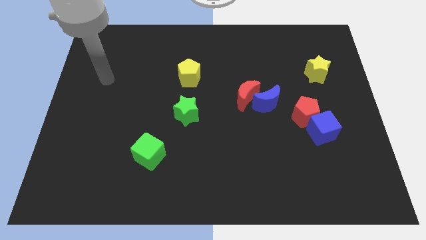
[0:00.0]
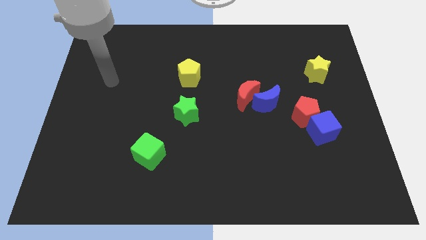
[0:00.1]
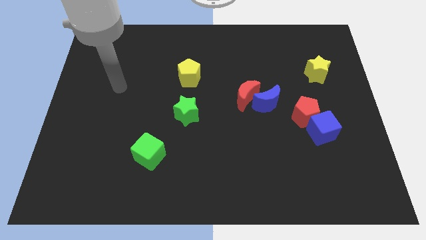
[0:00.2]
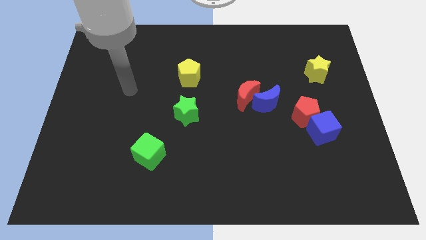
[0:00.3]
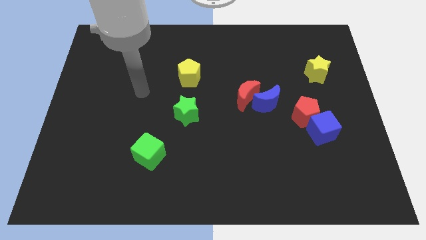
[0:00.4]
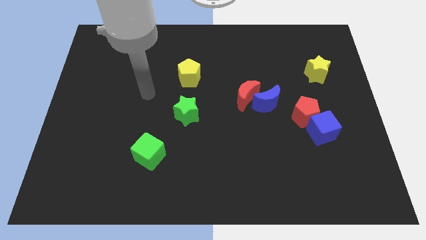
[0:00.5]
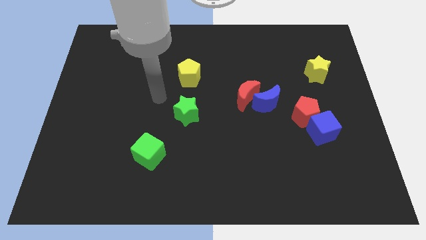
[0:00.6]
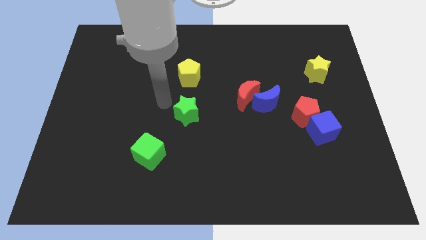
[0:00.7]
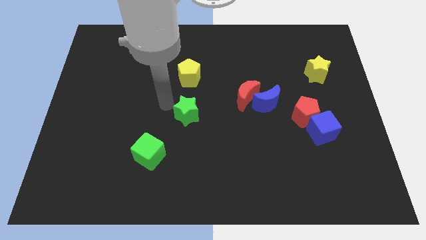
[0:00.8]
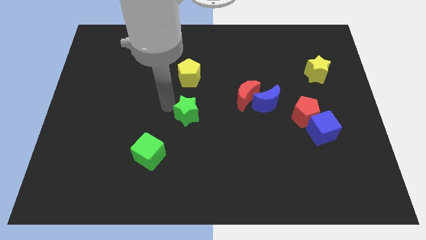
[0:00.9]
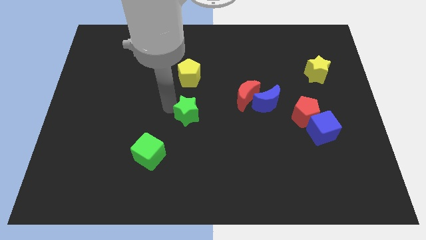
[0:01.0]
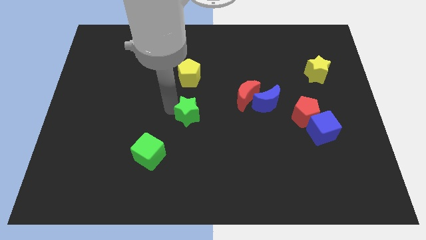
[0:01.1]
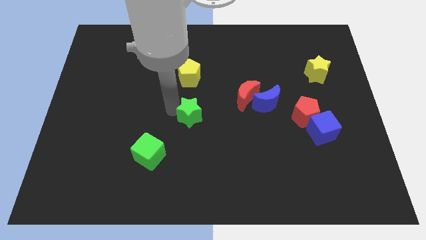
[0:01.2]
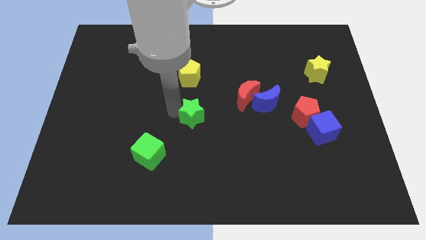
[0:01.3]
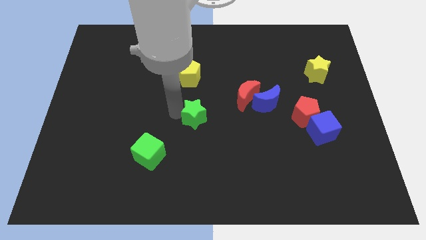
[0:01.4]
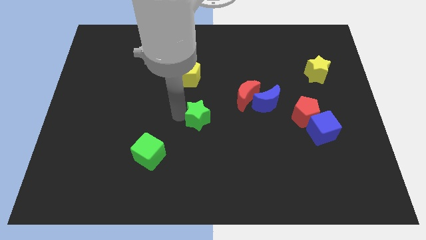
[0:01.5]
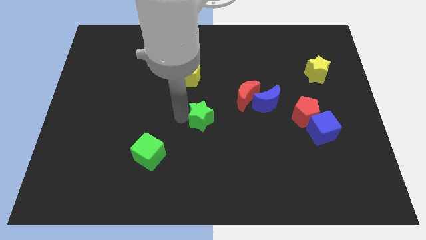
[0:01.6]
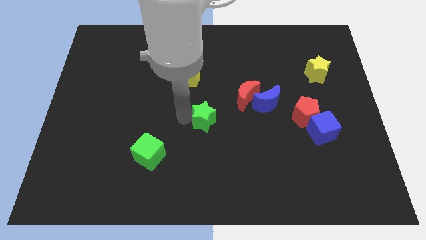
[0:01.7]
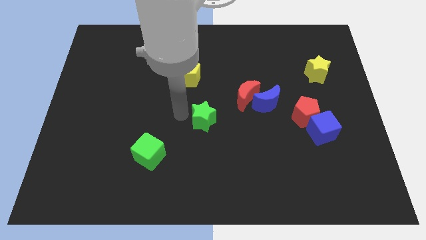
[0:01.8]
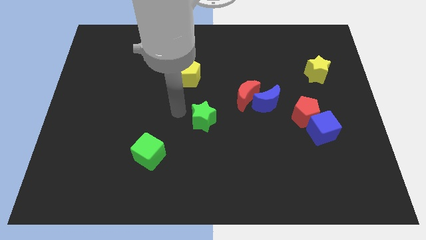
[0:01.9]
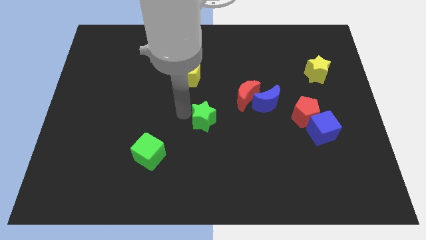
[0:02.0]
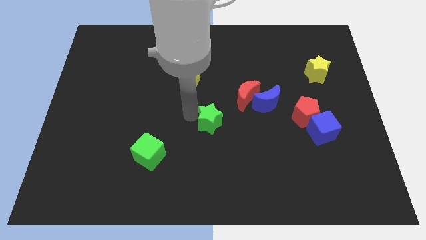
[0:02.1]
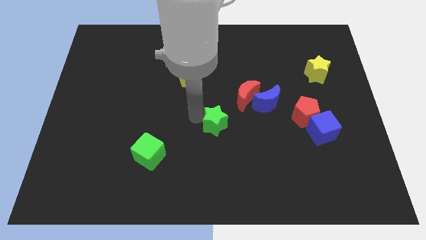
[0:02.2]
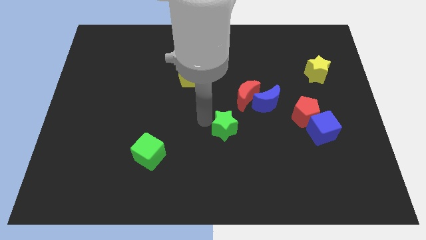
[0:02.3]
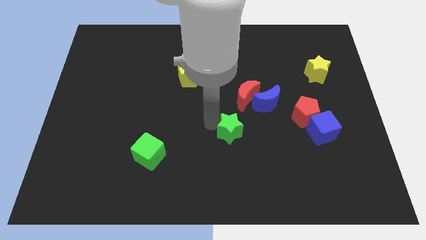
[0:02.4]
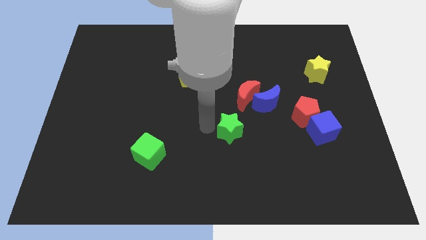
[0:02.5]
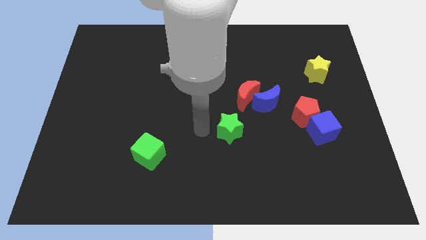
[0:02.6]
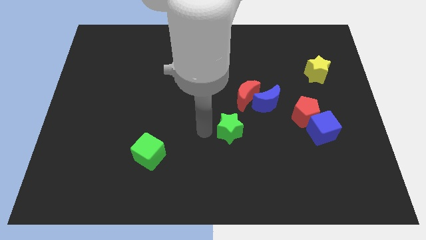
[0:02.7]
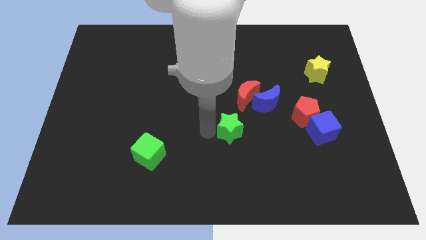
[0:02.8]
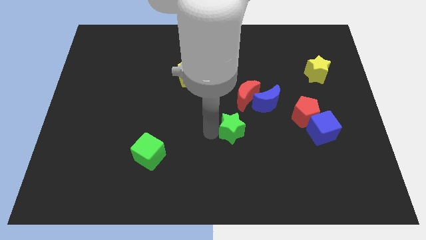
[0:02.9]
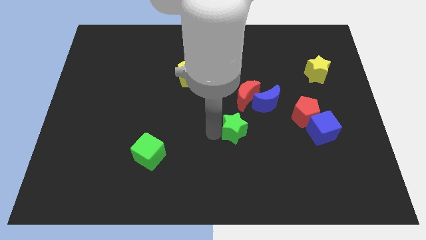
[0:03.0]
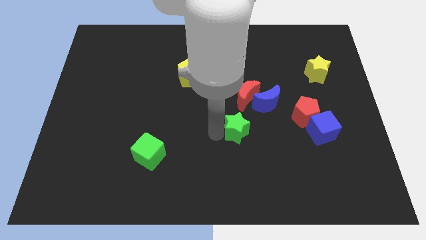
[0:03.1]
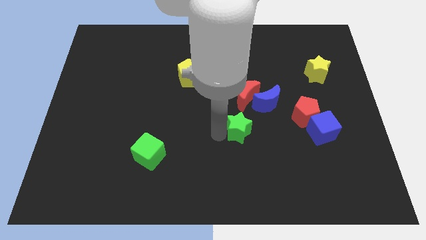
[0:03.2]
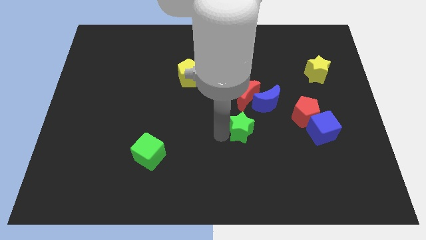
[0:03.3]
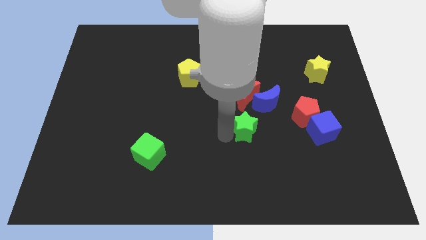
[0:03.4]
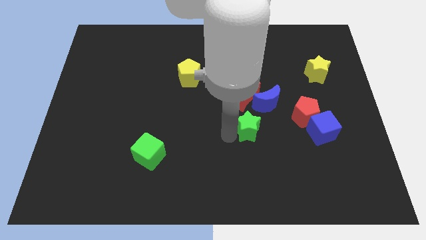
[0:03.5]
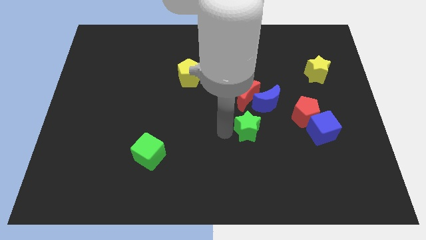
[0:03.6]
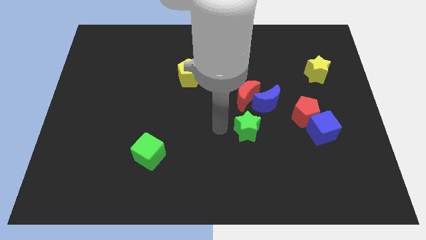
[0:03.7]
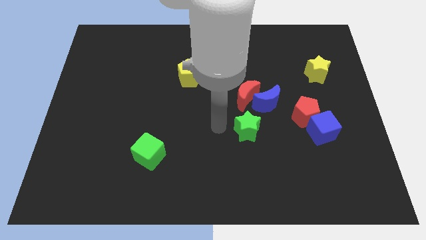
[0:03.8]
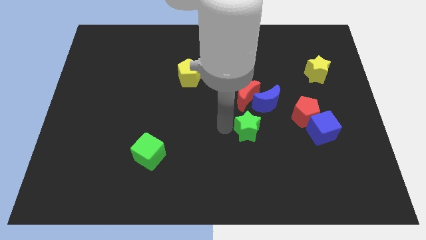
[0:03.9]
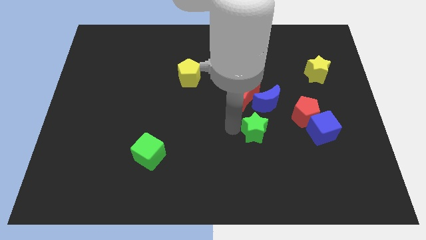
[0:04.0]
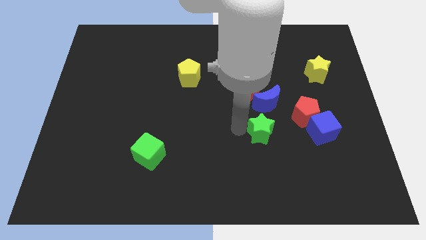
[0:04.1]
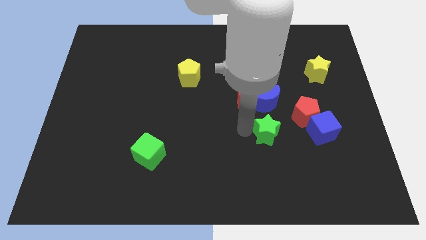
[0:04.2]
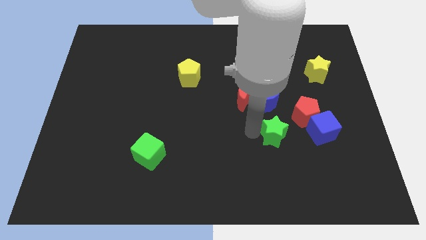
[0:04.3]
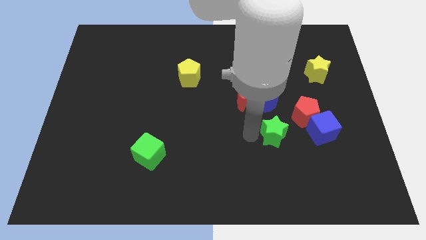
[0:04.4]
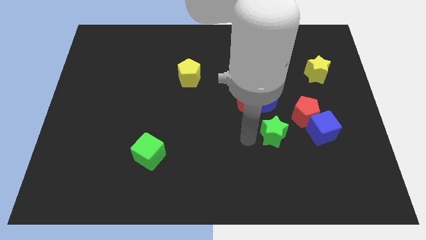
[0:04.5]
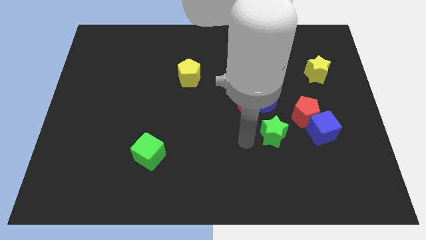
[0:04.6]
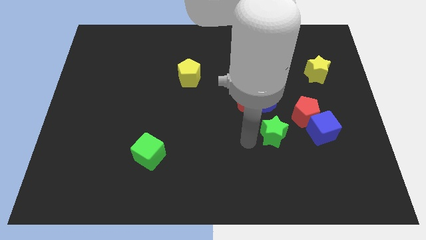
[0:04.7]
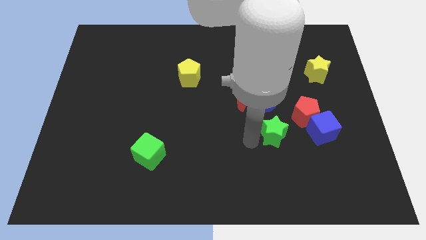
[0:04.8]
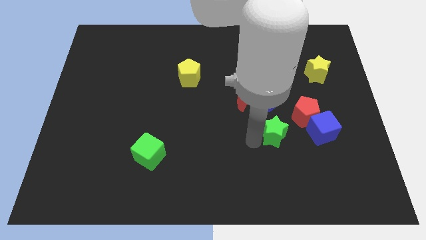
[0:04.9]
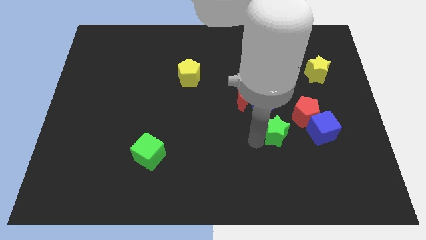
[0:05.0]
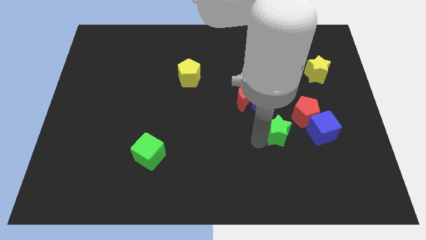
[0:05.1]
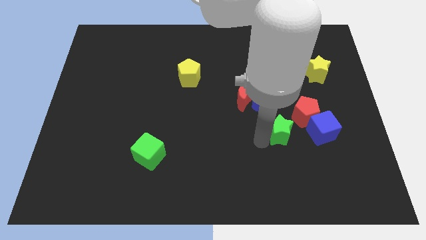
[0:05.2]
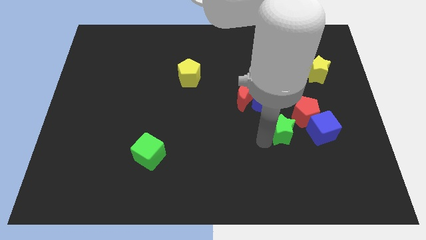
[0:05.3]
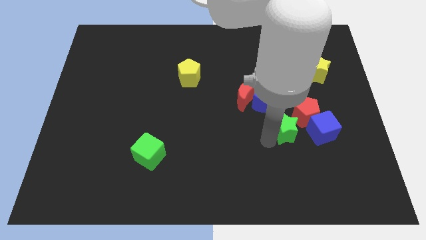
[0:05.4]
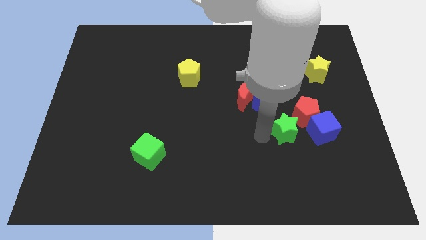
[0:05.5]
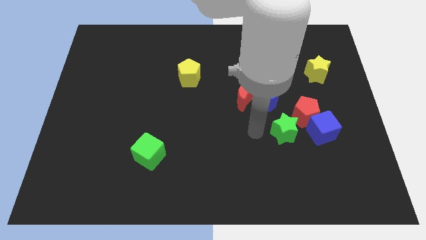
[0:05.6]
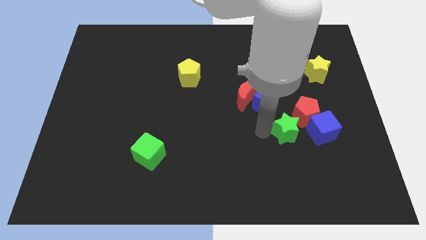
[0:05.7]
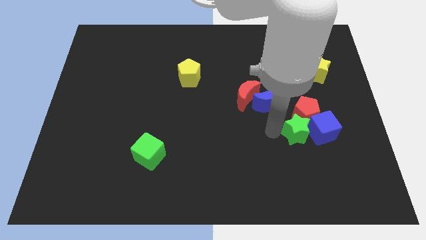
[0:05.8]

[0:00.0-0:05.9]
slide the green star to the blue cube
